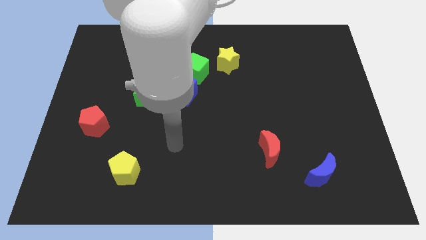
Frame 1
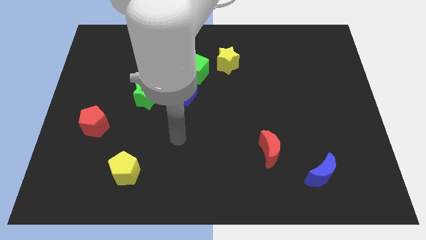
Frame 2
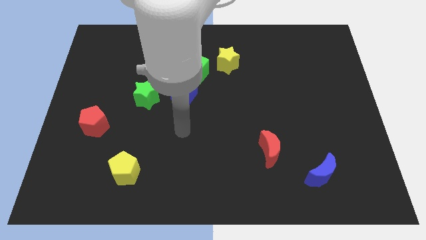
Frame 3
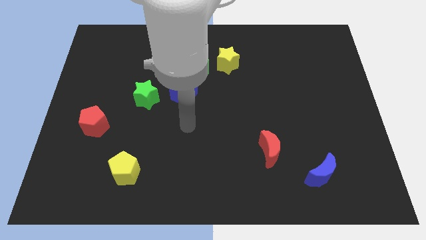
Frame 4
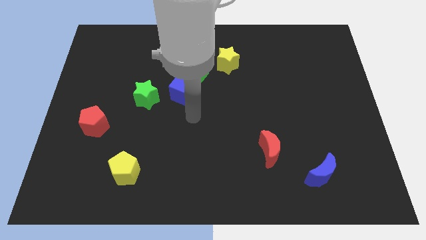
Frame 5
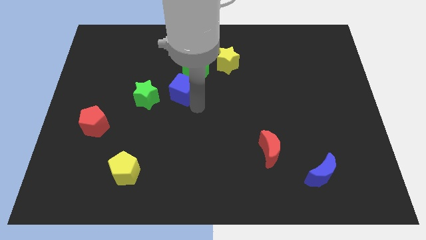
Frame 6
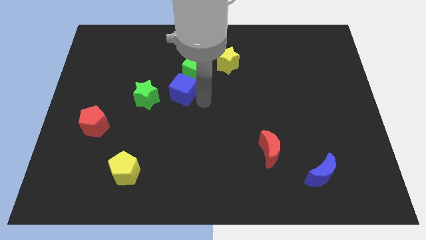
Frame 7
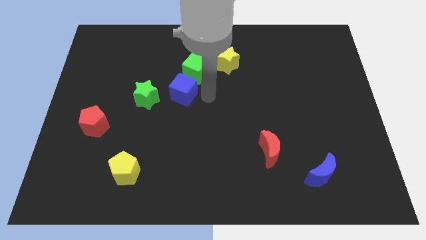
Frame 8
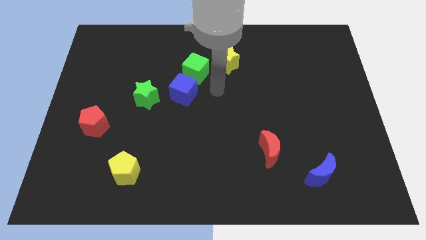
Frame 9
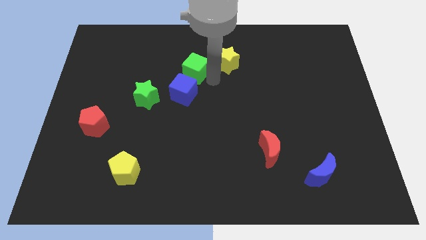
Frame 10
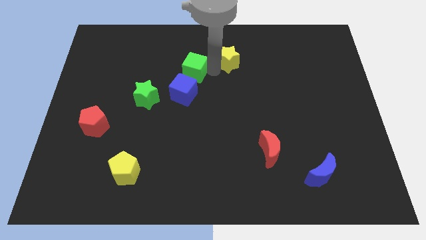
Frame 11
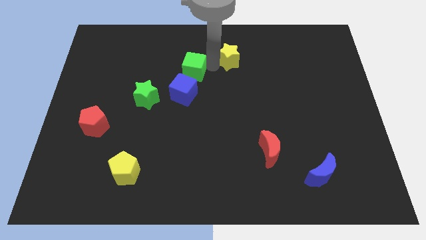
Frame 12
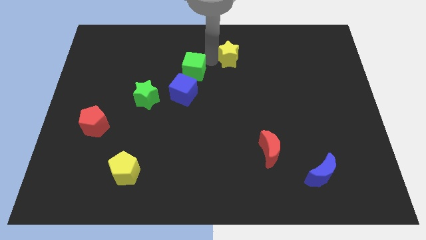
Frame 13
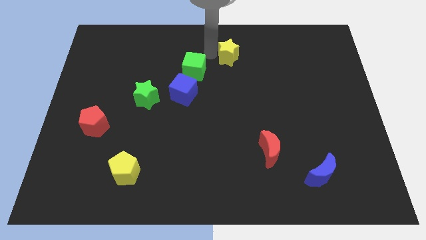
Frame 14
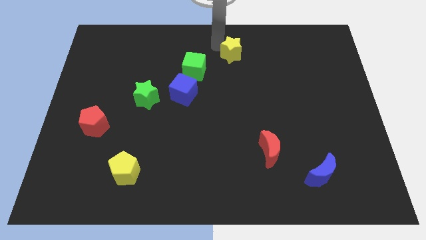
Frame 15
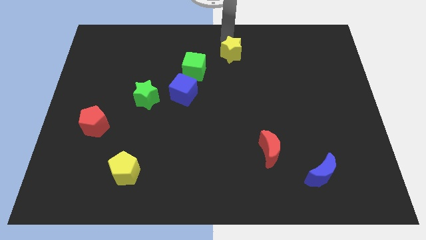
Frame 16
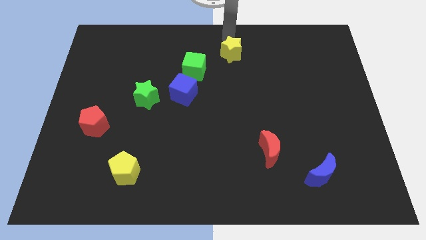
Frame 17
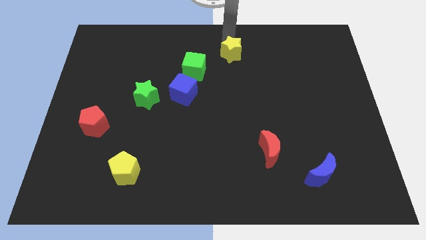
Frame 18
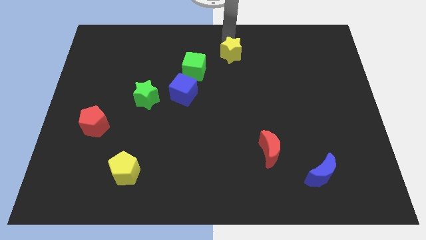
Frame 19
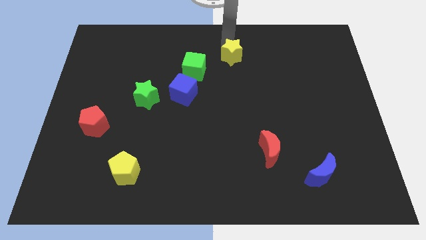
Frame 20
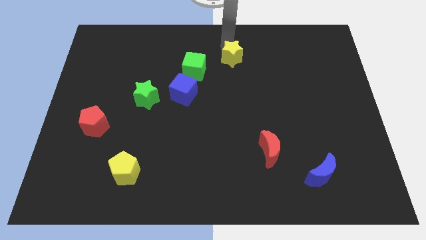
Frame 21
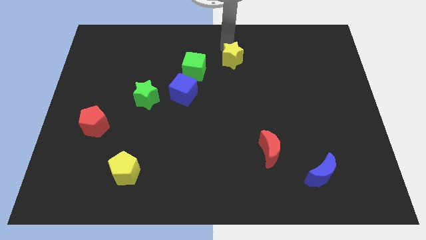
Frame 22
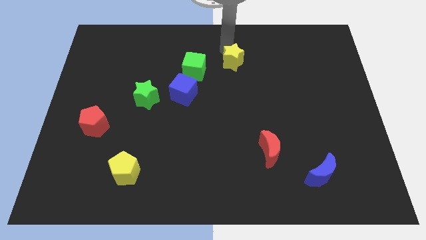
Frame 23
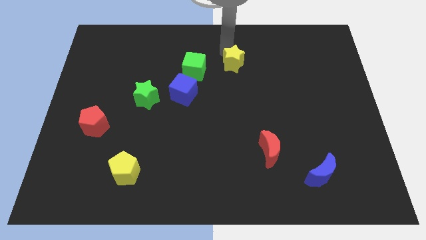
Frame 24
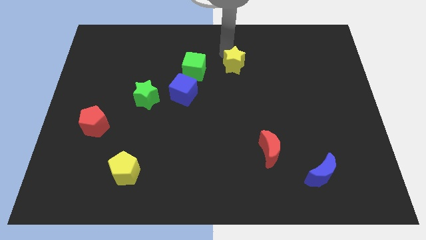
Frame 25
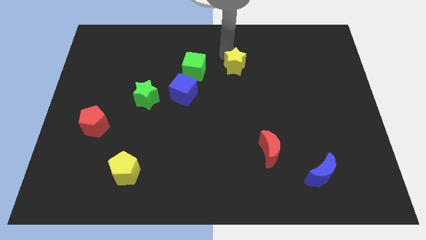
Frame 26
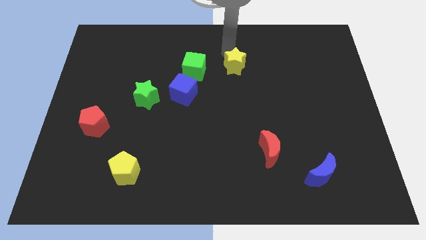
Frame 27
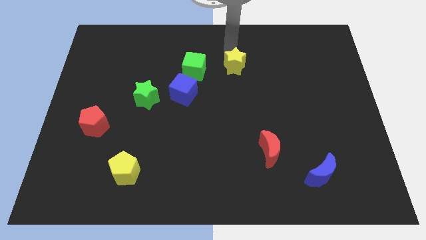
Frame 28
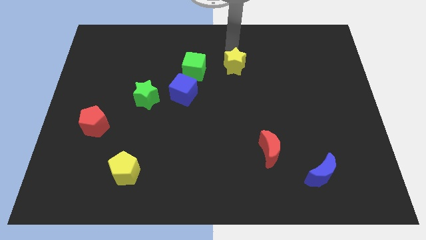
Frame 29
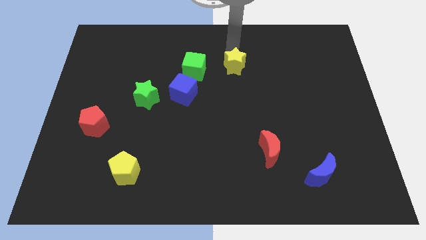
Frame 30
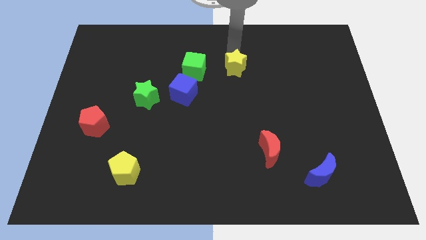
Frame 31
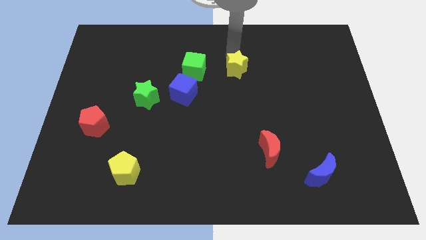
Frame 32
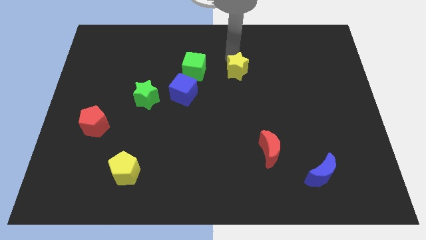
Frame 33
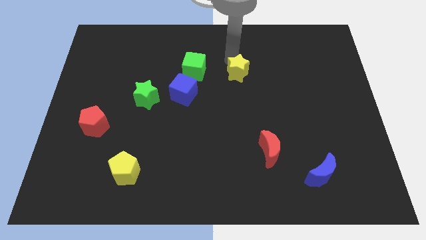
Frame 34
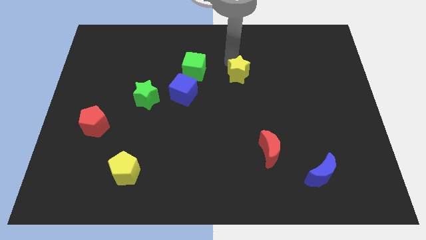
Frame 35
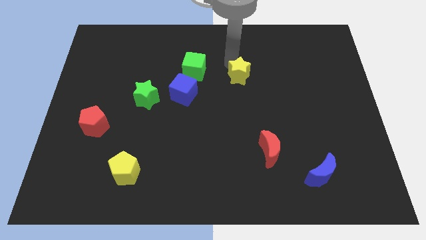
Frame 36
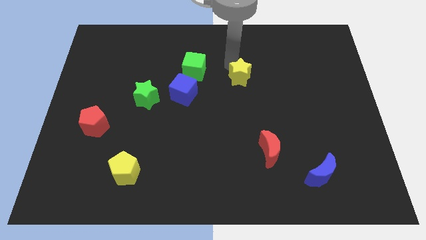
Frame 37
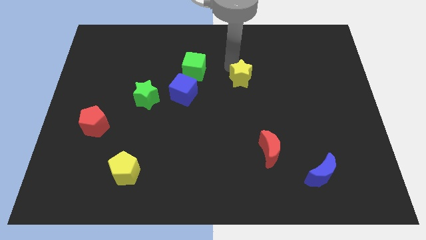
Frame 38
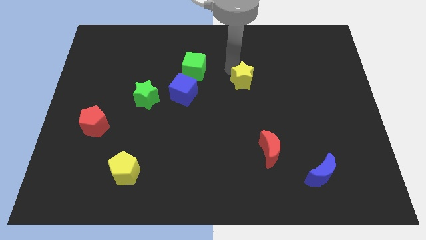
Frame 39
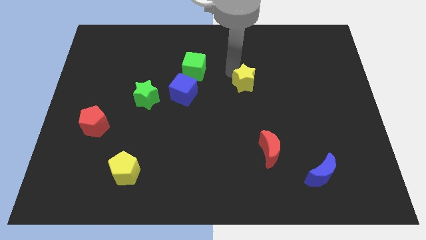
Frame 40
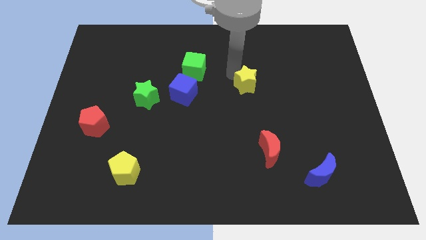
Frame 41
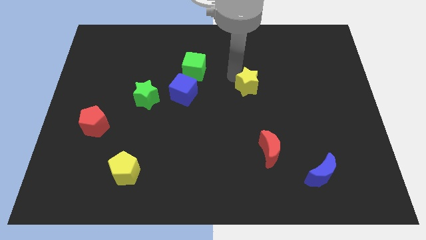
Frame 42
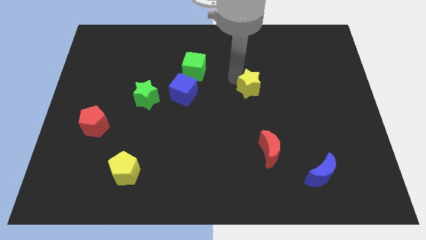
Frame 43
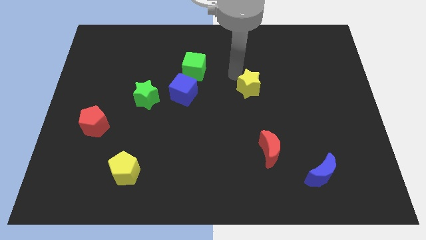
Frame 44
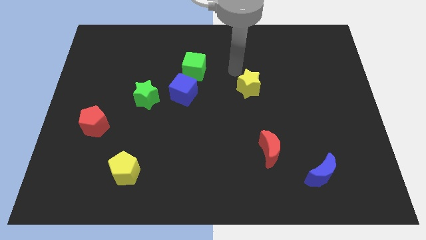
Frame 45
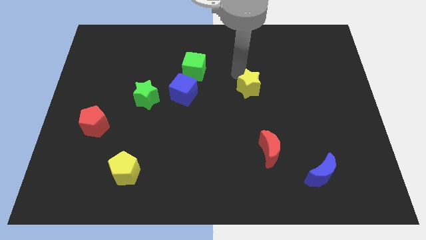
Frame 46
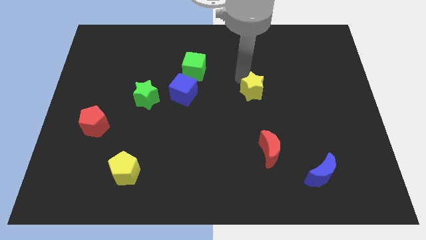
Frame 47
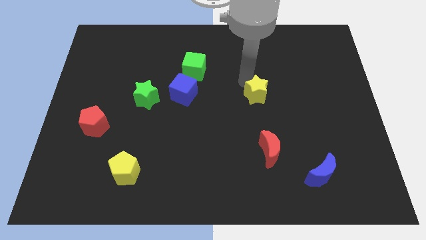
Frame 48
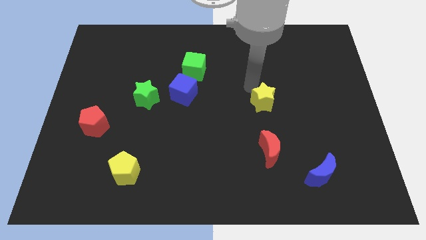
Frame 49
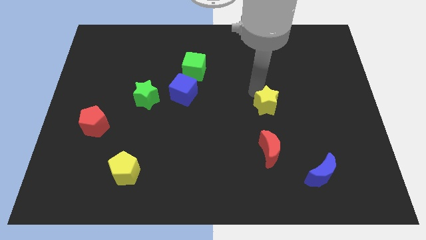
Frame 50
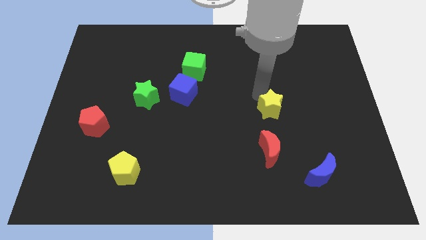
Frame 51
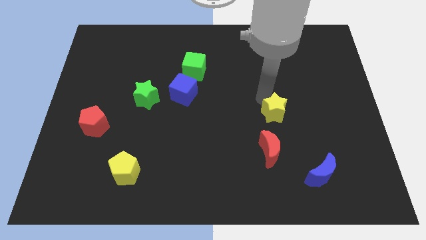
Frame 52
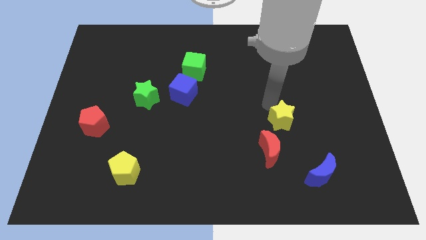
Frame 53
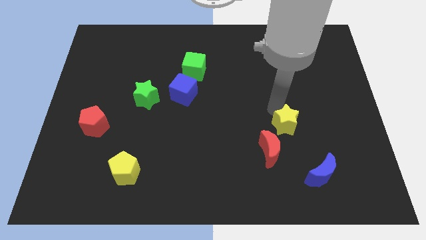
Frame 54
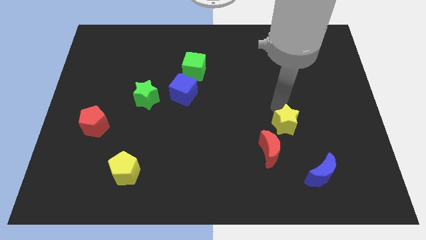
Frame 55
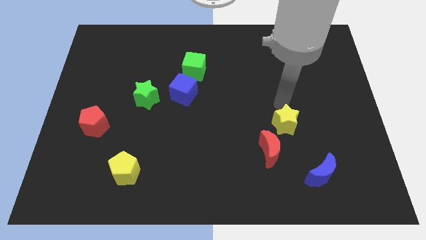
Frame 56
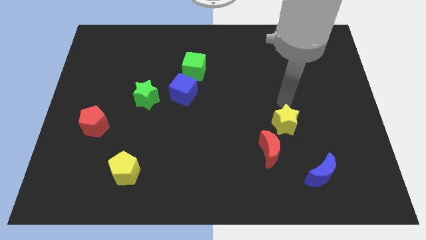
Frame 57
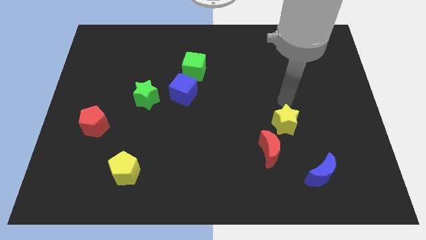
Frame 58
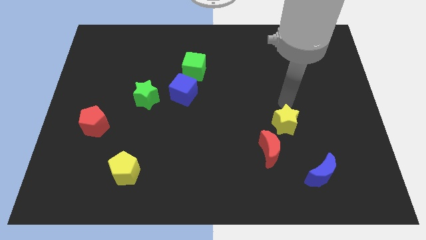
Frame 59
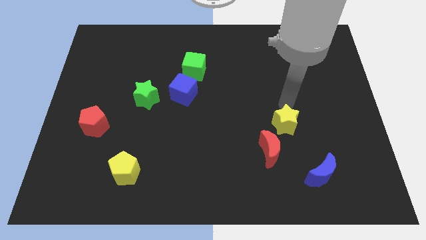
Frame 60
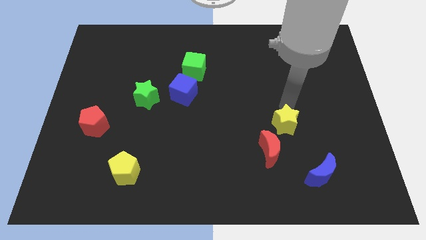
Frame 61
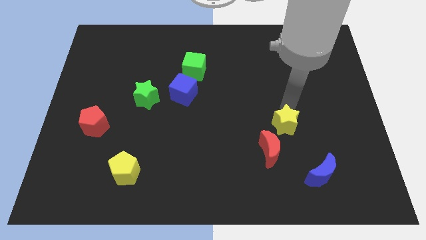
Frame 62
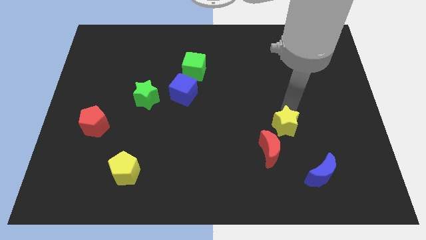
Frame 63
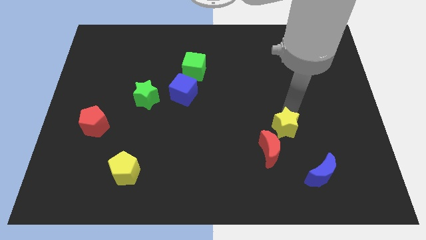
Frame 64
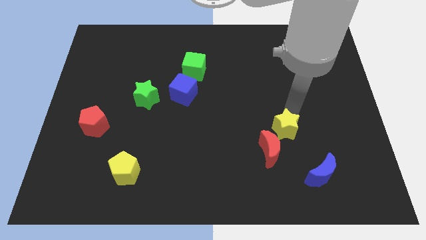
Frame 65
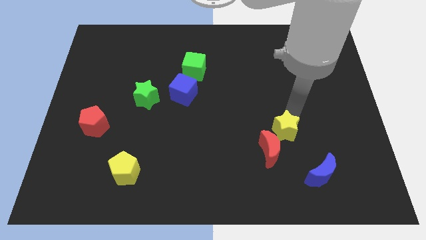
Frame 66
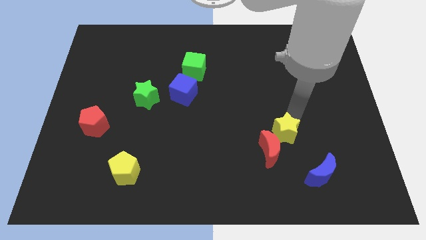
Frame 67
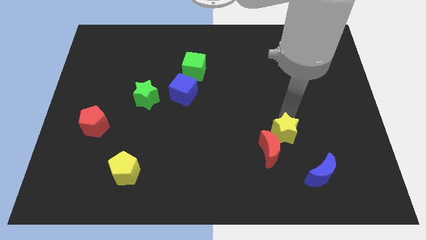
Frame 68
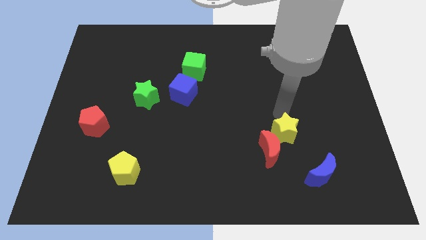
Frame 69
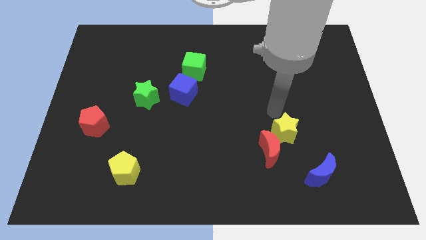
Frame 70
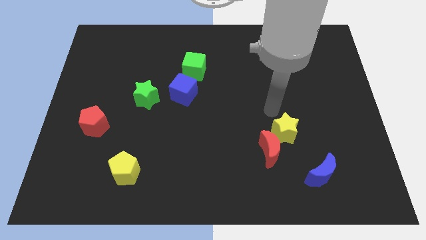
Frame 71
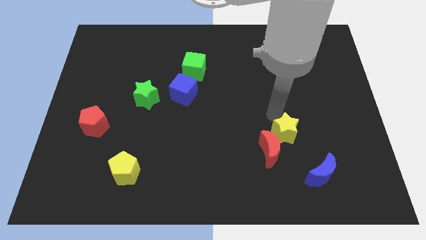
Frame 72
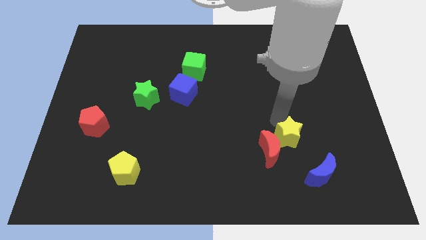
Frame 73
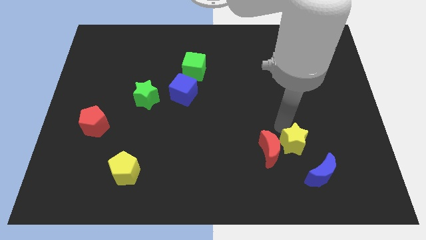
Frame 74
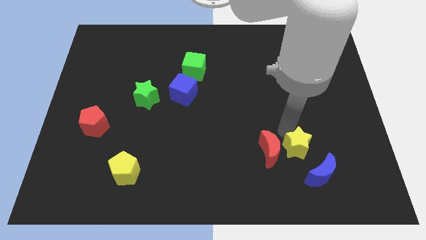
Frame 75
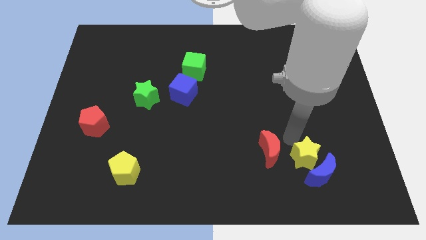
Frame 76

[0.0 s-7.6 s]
push the yellow star close to the blue moon
